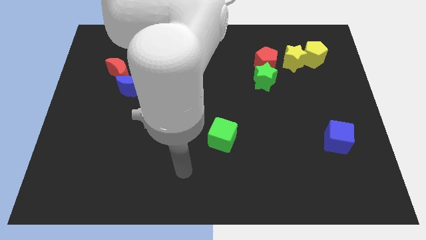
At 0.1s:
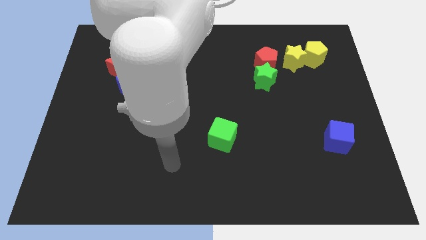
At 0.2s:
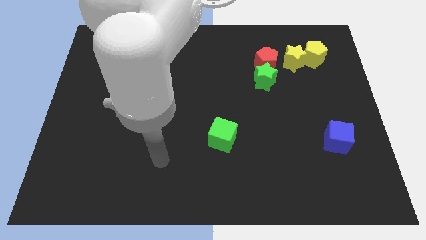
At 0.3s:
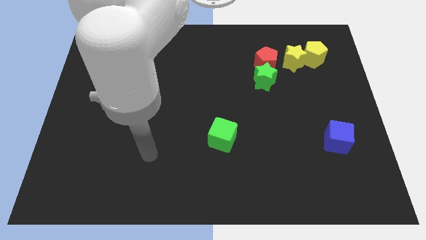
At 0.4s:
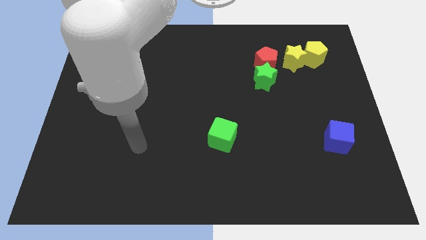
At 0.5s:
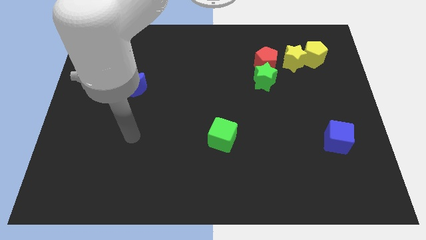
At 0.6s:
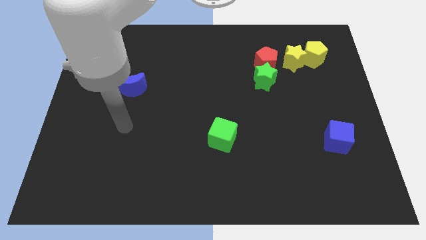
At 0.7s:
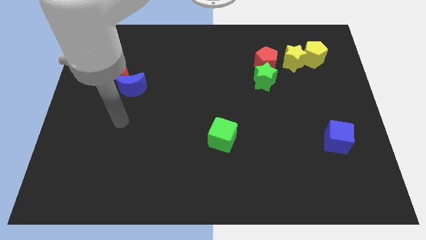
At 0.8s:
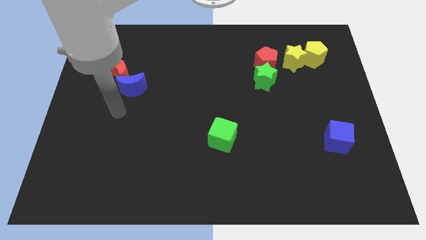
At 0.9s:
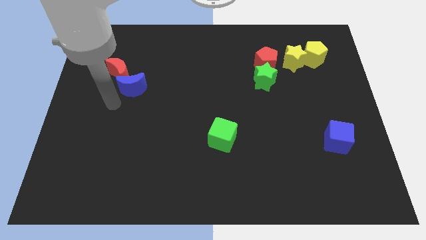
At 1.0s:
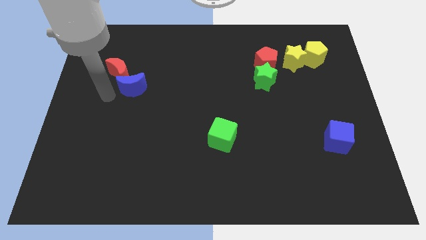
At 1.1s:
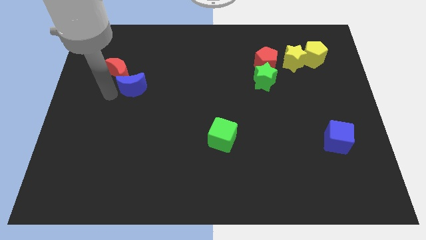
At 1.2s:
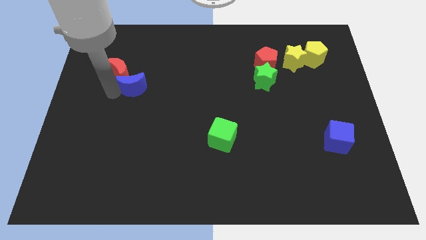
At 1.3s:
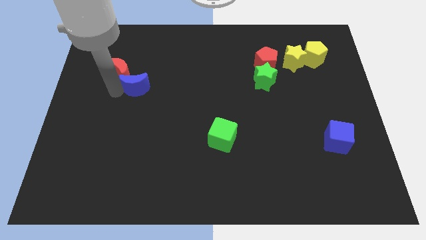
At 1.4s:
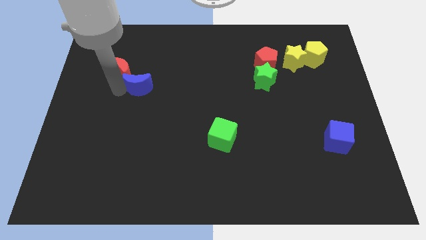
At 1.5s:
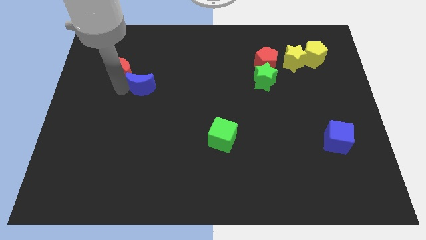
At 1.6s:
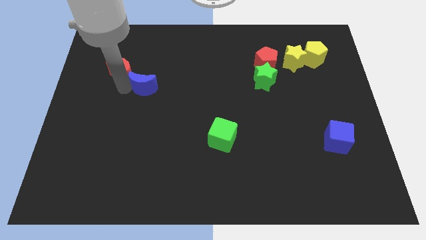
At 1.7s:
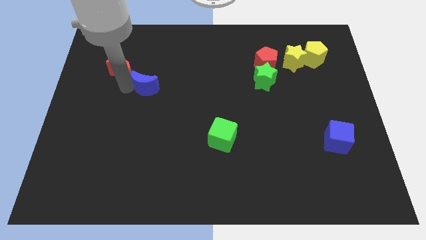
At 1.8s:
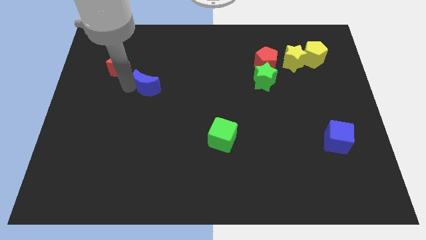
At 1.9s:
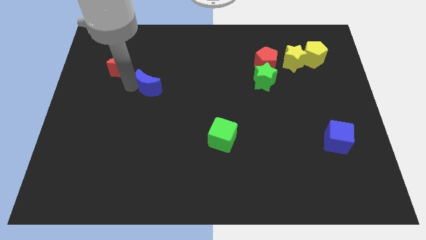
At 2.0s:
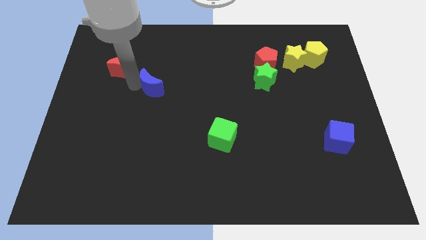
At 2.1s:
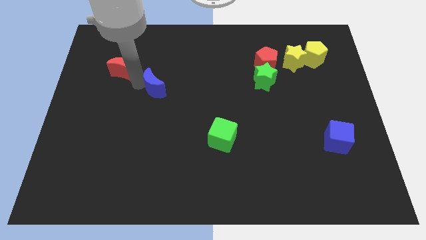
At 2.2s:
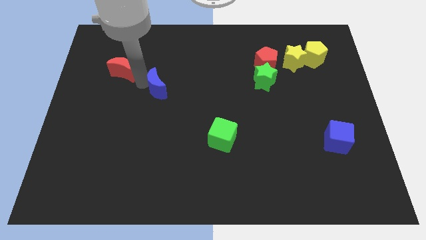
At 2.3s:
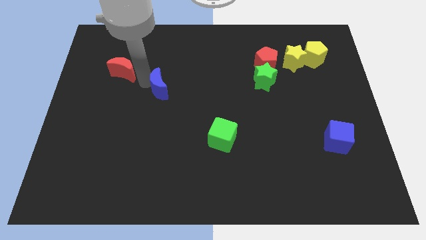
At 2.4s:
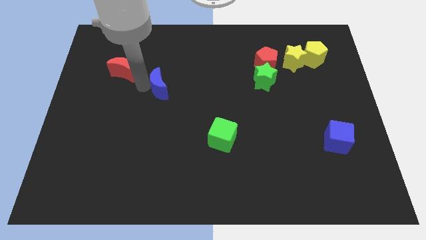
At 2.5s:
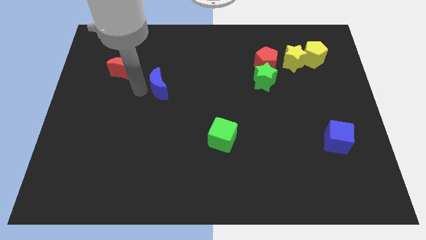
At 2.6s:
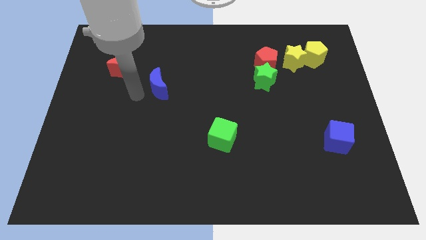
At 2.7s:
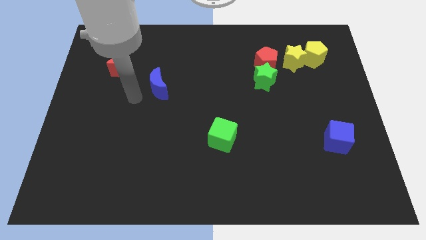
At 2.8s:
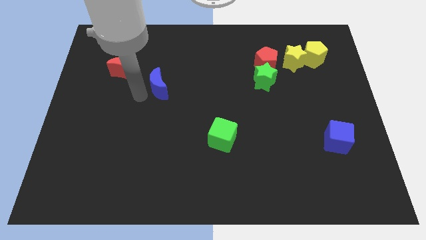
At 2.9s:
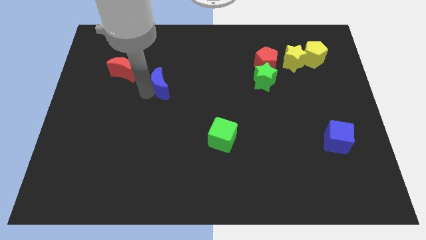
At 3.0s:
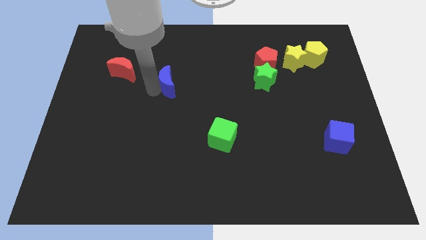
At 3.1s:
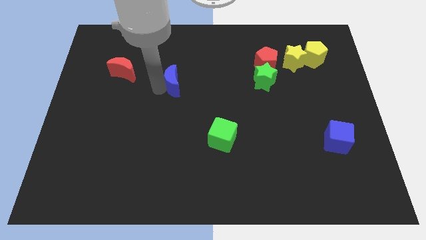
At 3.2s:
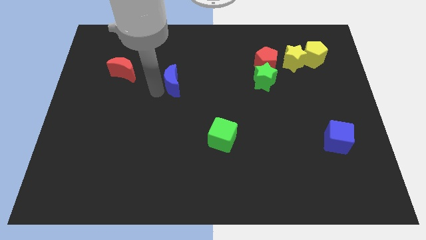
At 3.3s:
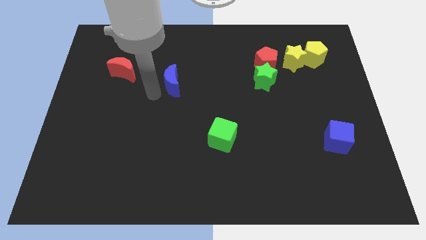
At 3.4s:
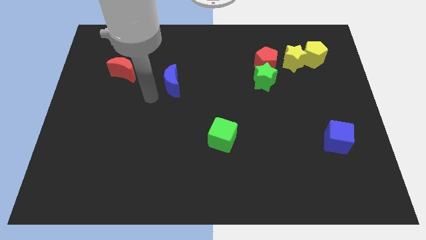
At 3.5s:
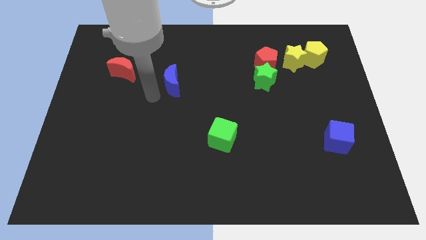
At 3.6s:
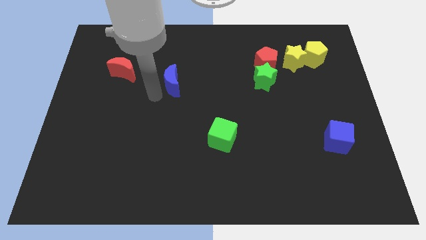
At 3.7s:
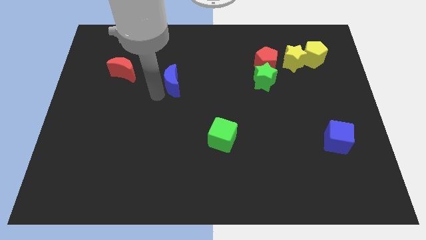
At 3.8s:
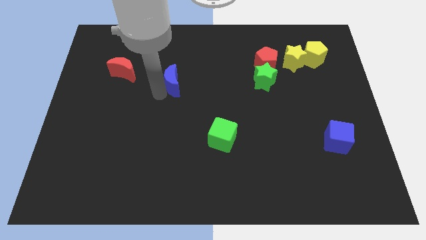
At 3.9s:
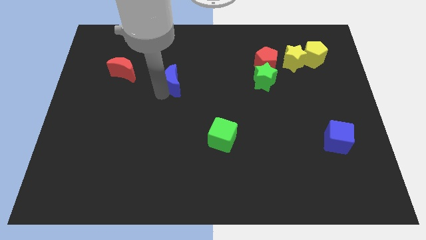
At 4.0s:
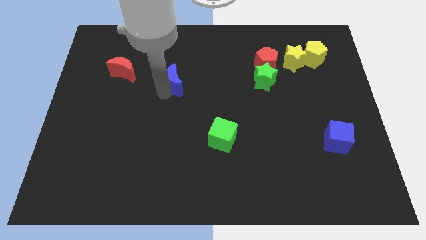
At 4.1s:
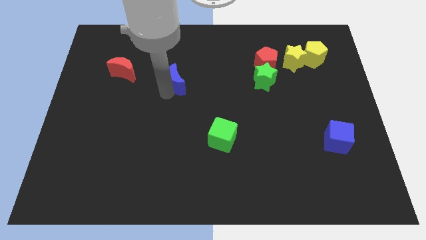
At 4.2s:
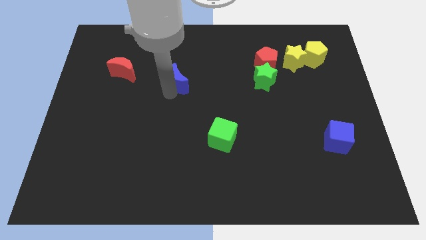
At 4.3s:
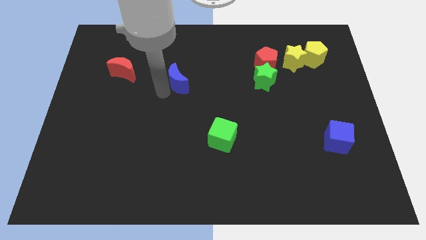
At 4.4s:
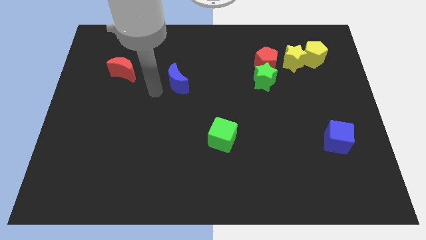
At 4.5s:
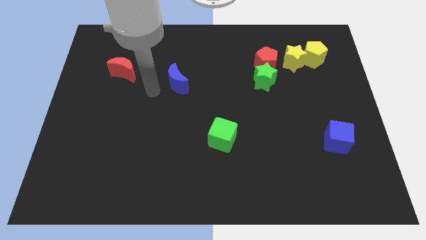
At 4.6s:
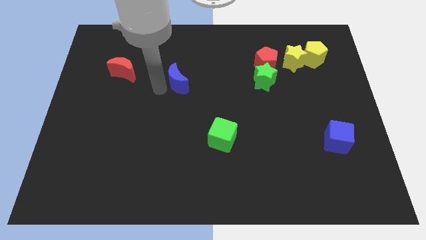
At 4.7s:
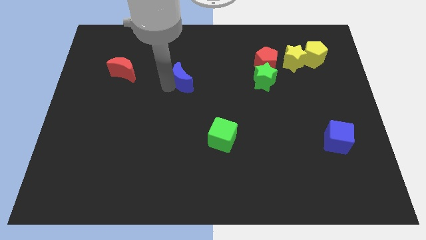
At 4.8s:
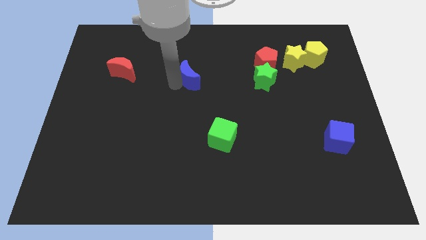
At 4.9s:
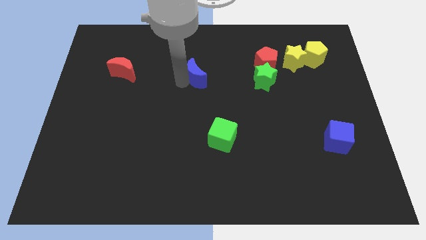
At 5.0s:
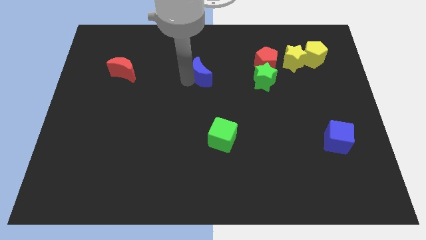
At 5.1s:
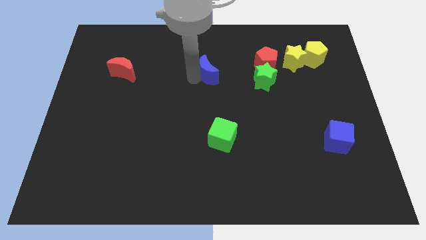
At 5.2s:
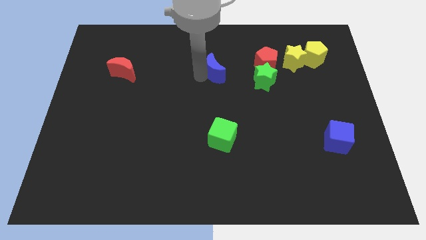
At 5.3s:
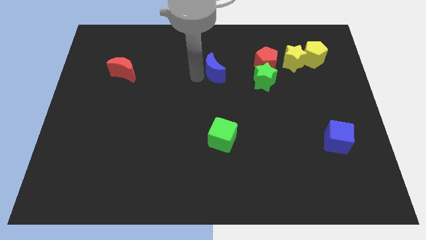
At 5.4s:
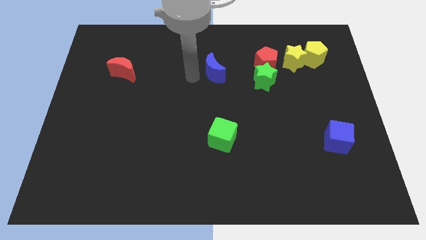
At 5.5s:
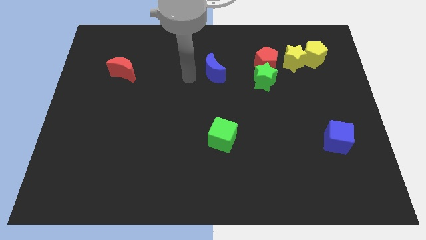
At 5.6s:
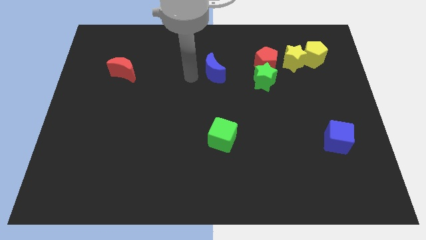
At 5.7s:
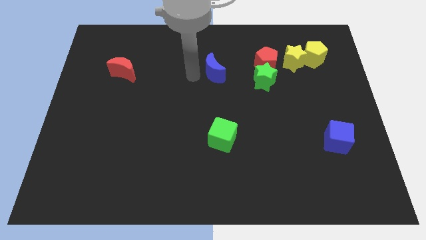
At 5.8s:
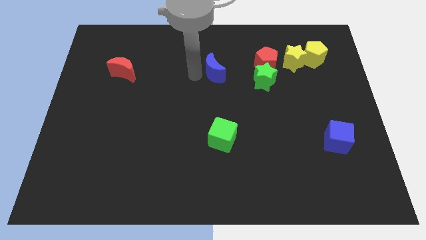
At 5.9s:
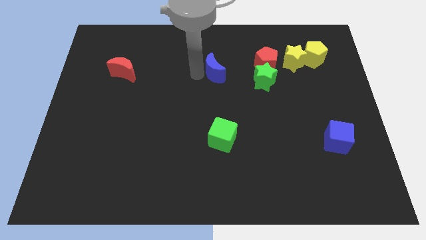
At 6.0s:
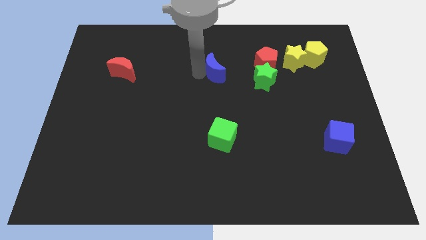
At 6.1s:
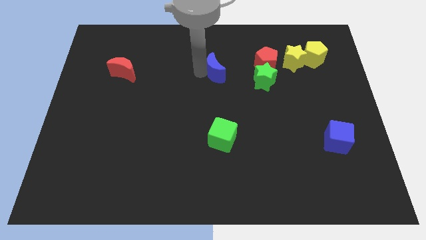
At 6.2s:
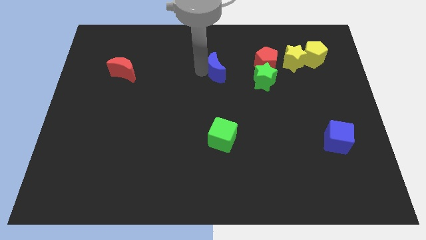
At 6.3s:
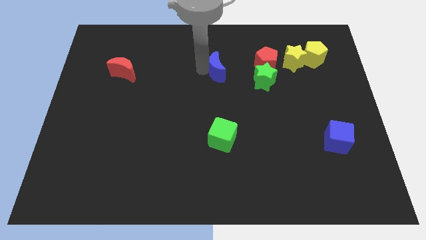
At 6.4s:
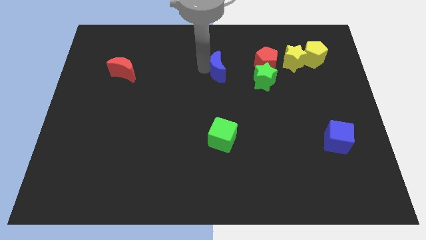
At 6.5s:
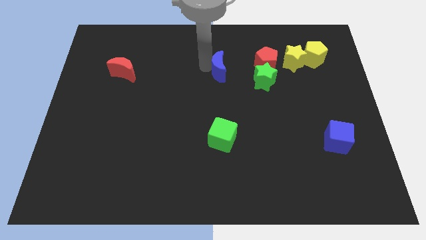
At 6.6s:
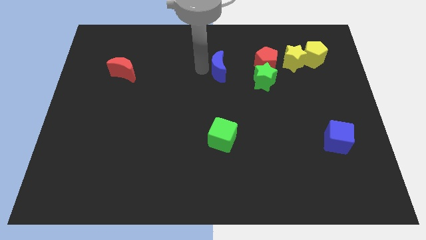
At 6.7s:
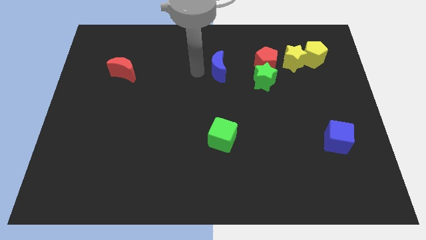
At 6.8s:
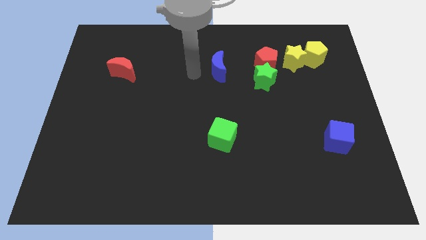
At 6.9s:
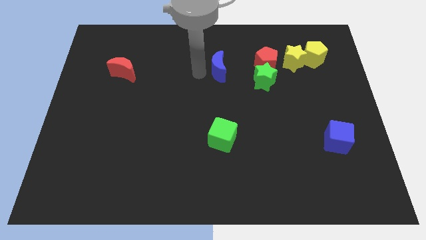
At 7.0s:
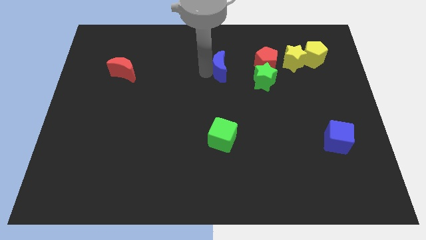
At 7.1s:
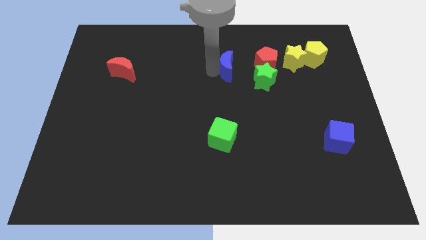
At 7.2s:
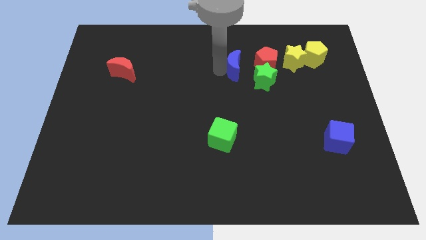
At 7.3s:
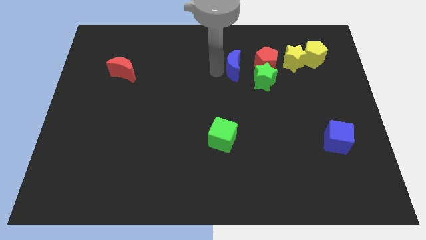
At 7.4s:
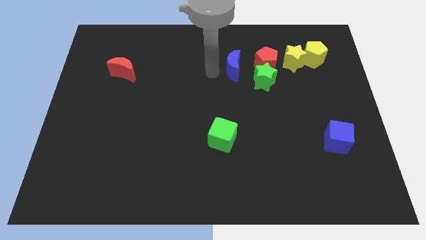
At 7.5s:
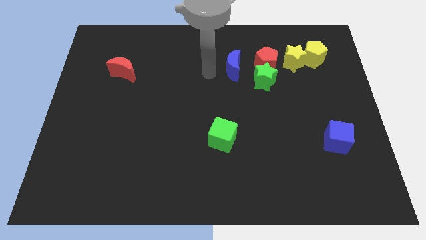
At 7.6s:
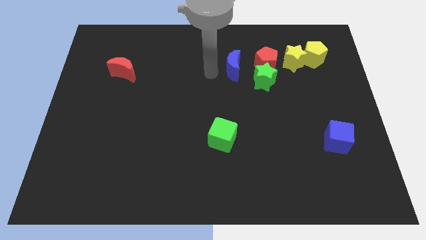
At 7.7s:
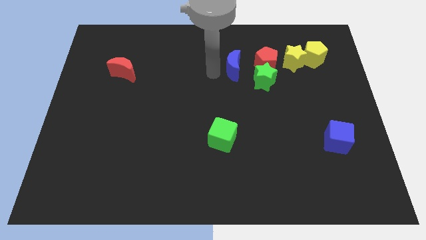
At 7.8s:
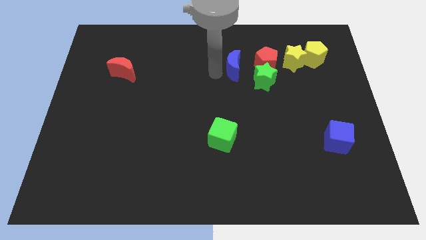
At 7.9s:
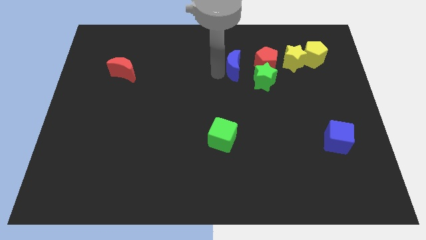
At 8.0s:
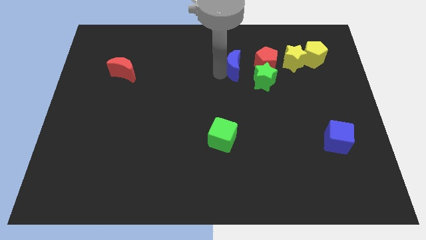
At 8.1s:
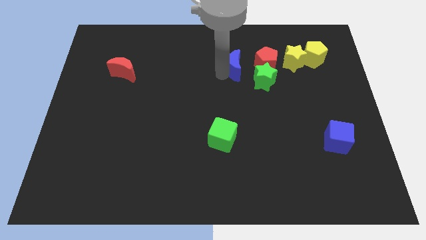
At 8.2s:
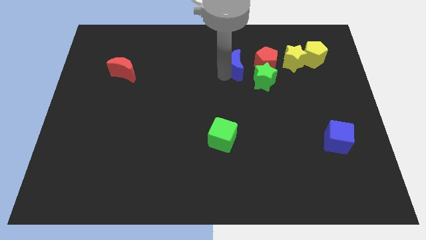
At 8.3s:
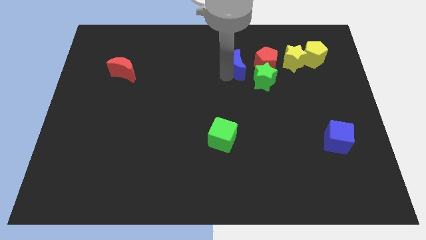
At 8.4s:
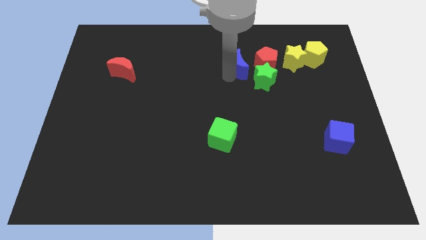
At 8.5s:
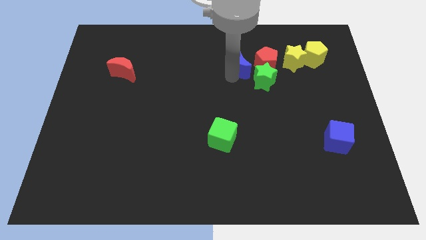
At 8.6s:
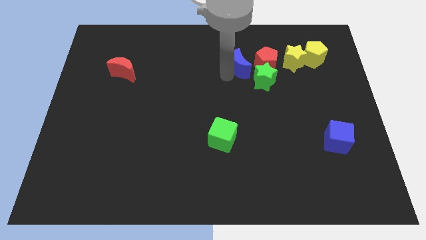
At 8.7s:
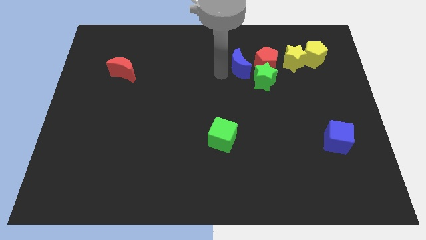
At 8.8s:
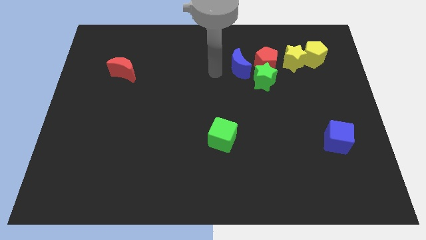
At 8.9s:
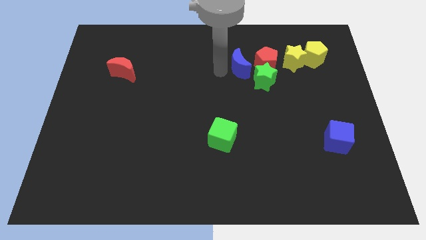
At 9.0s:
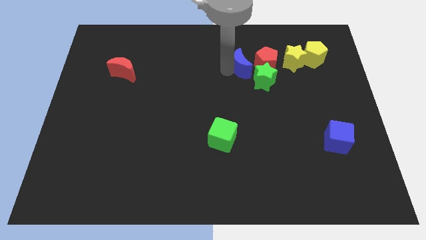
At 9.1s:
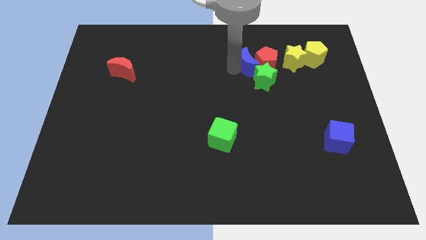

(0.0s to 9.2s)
move the blue moon to the red pentagon
